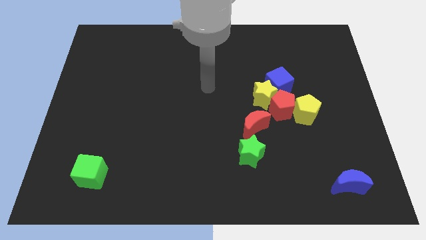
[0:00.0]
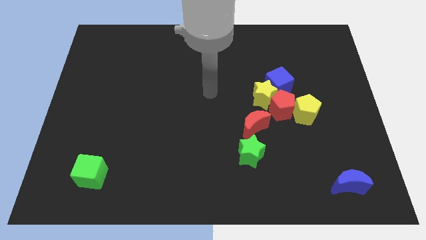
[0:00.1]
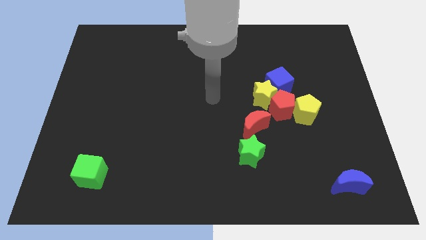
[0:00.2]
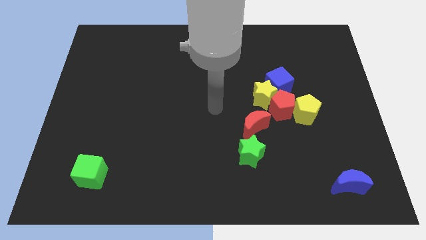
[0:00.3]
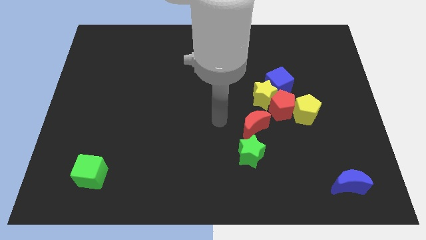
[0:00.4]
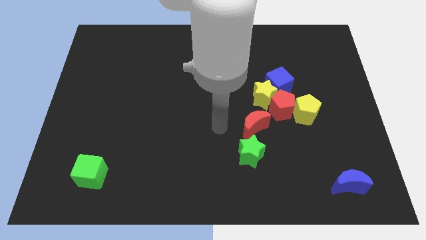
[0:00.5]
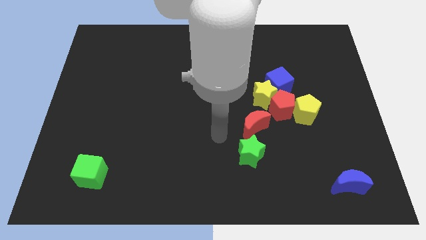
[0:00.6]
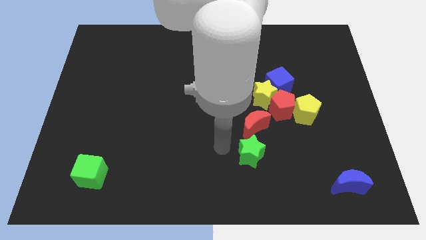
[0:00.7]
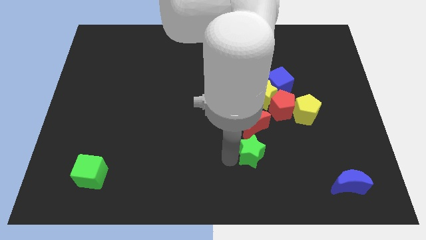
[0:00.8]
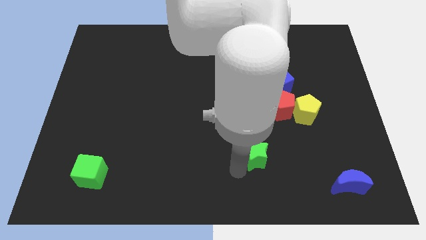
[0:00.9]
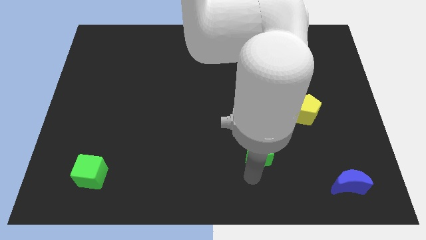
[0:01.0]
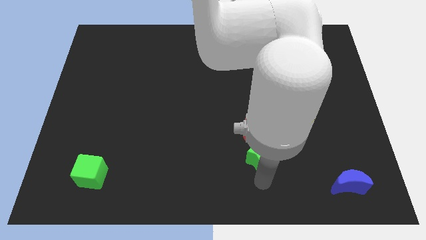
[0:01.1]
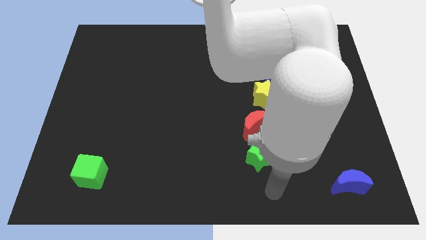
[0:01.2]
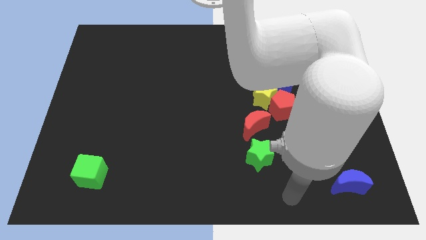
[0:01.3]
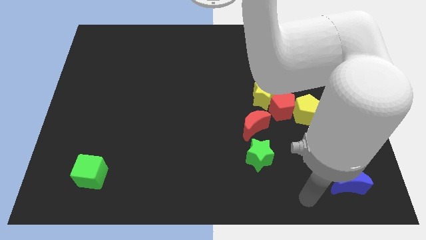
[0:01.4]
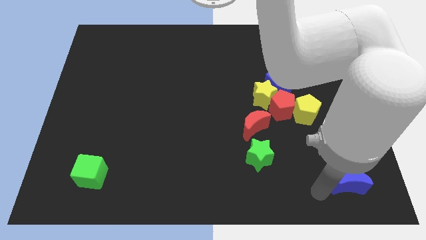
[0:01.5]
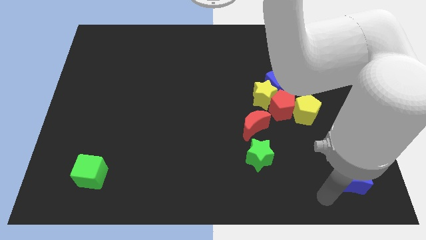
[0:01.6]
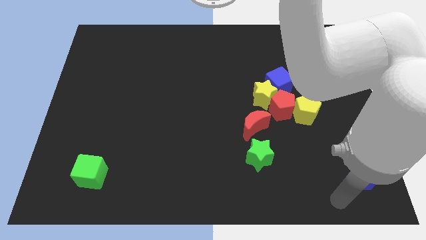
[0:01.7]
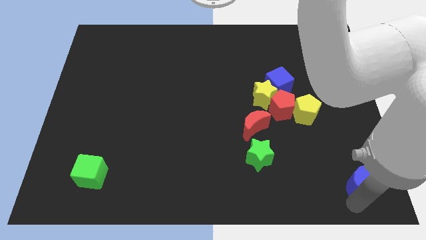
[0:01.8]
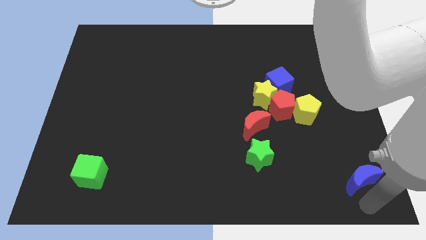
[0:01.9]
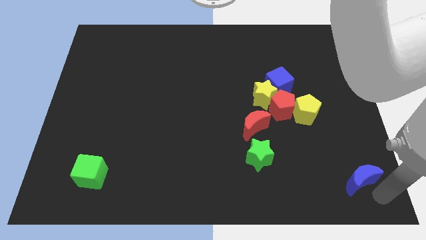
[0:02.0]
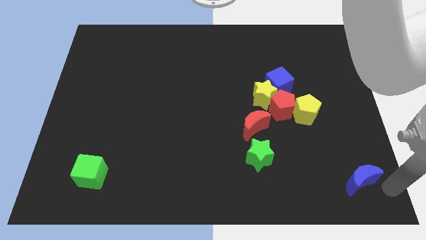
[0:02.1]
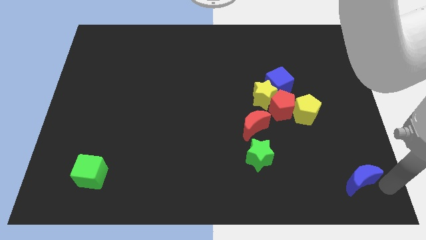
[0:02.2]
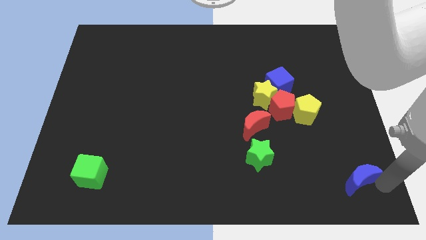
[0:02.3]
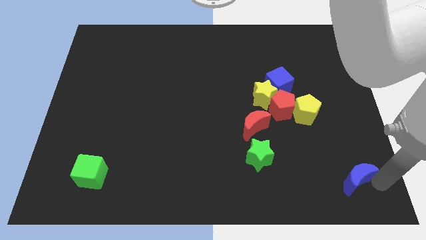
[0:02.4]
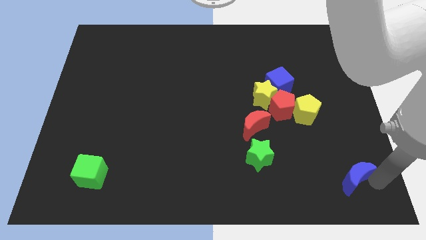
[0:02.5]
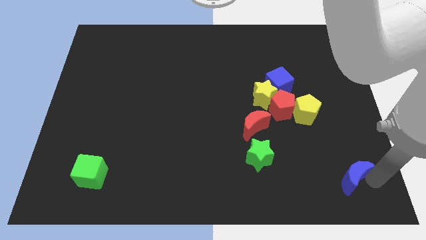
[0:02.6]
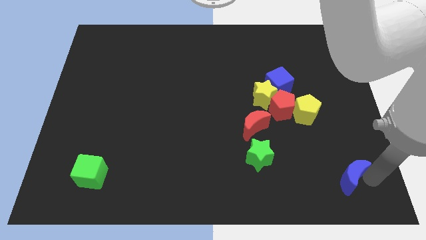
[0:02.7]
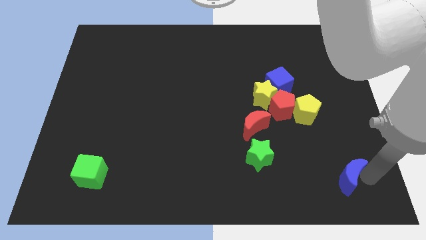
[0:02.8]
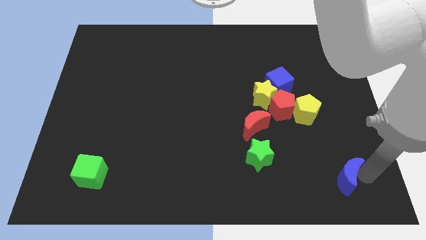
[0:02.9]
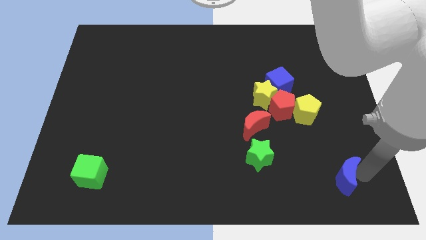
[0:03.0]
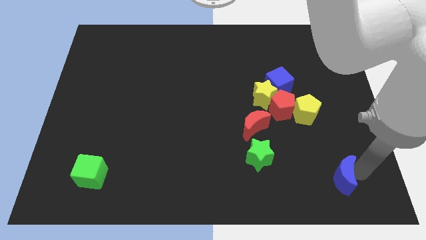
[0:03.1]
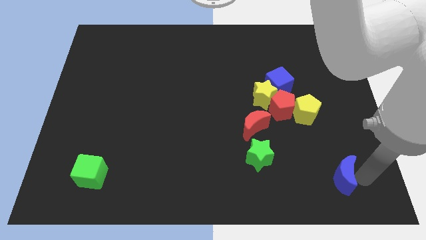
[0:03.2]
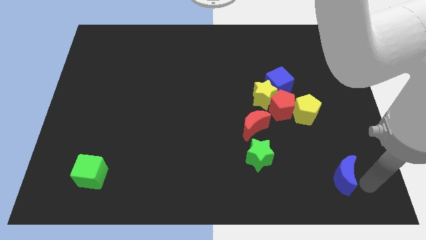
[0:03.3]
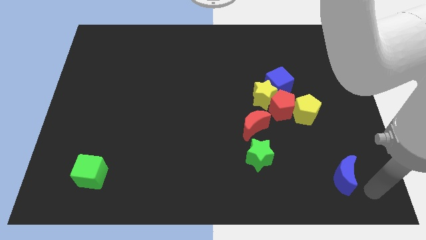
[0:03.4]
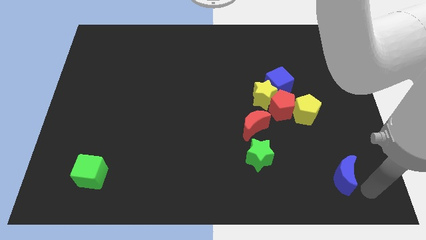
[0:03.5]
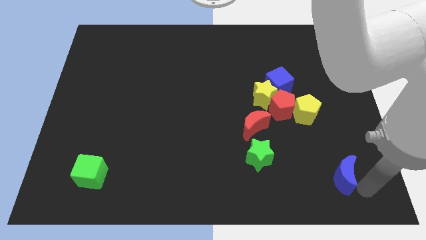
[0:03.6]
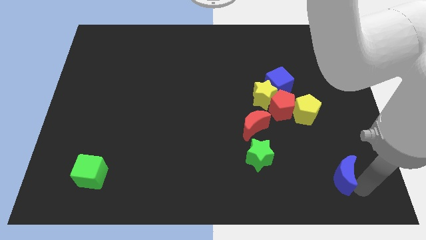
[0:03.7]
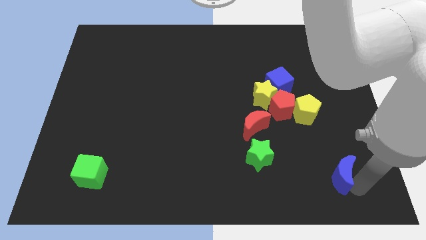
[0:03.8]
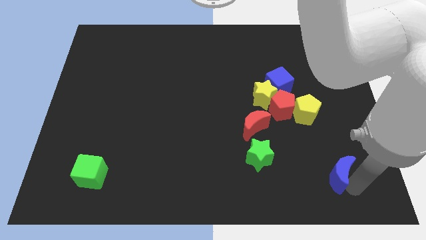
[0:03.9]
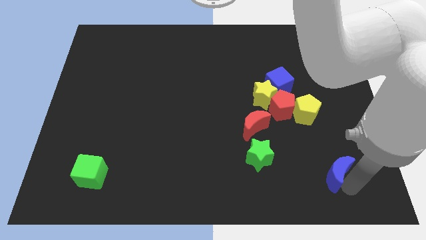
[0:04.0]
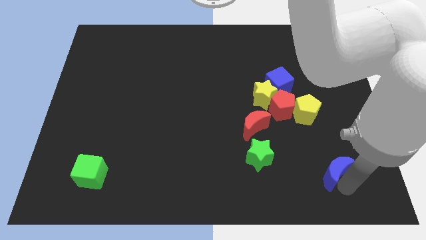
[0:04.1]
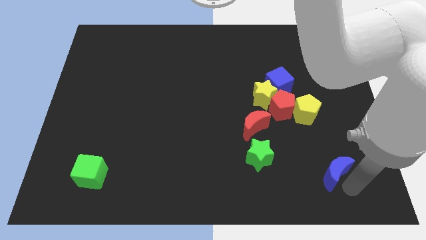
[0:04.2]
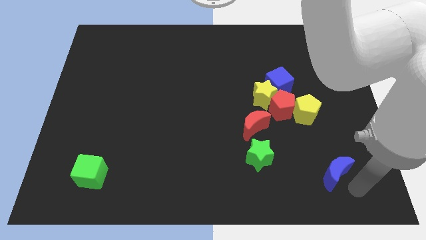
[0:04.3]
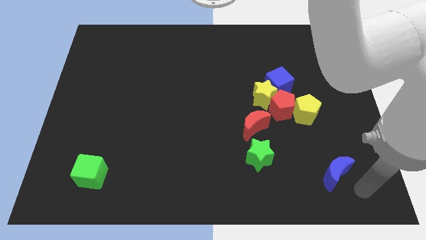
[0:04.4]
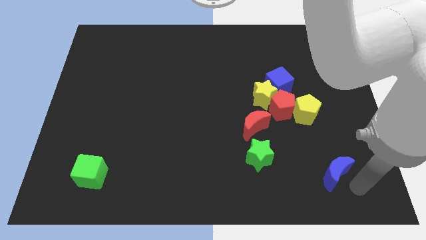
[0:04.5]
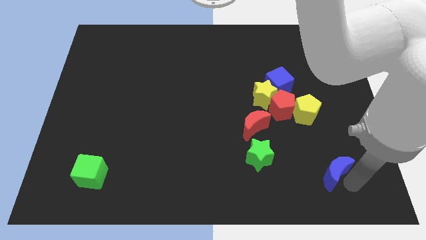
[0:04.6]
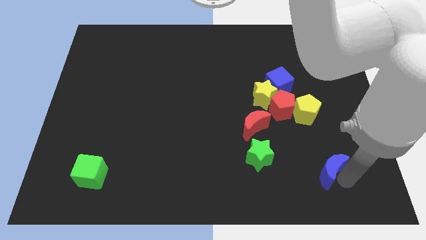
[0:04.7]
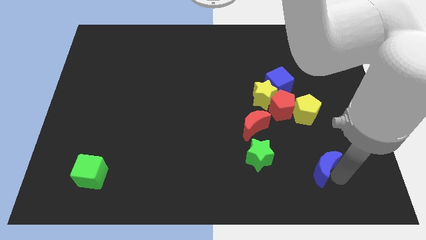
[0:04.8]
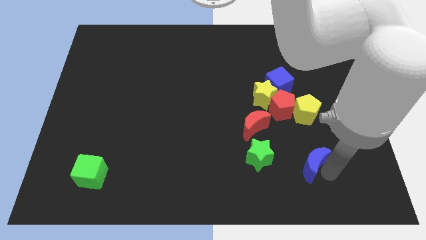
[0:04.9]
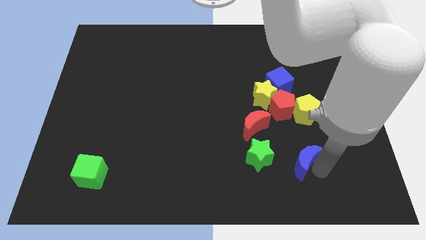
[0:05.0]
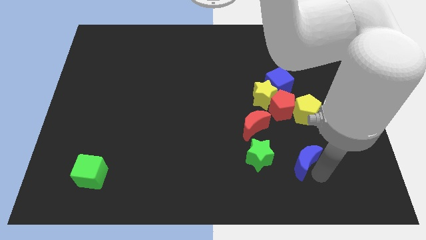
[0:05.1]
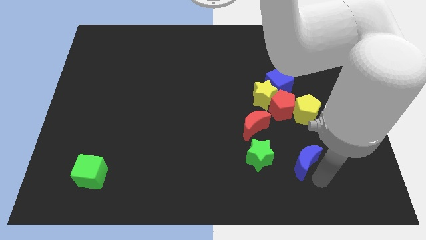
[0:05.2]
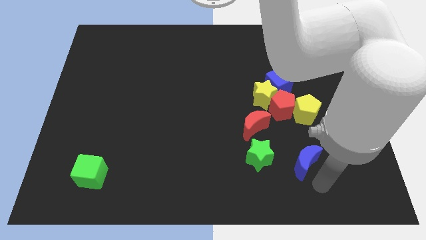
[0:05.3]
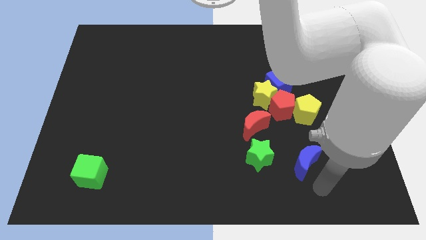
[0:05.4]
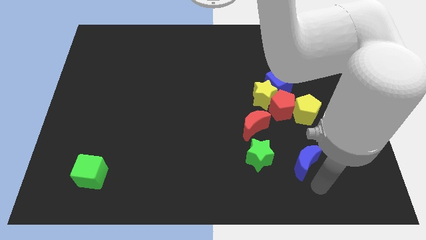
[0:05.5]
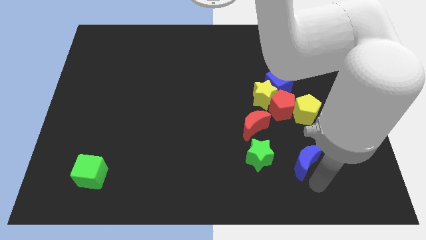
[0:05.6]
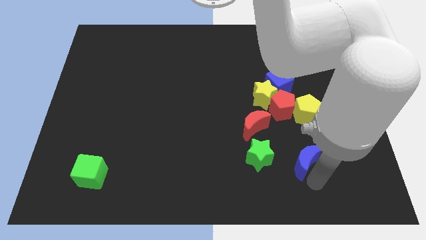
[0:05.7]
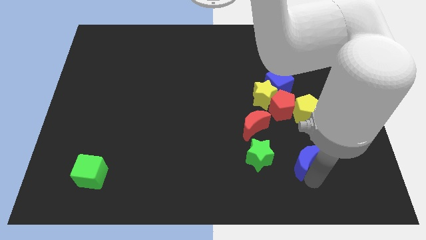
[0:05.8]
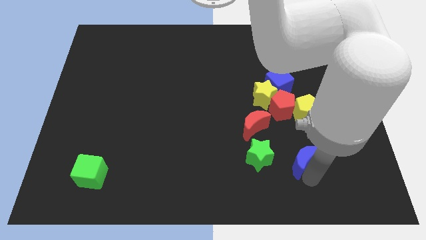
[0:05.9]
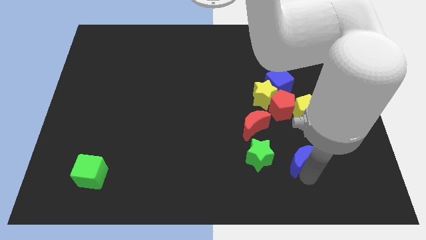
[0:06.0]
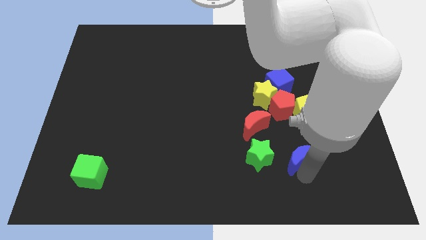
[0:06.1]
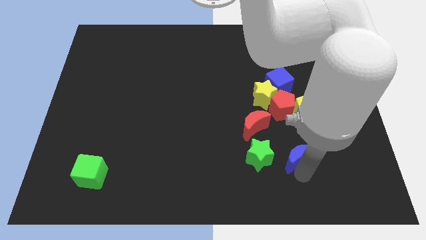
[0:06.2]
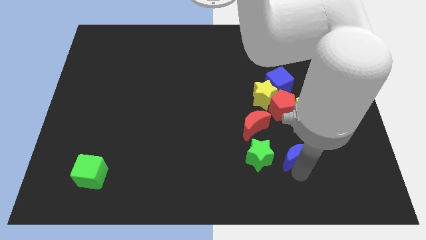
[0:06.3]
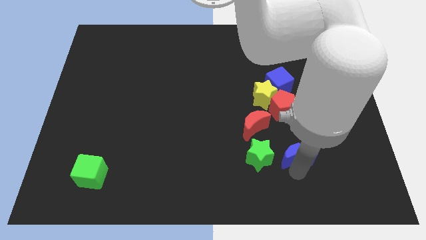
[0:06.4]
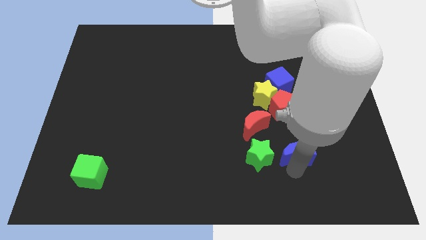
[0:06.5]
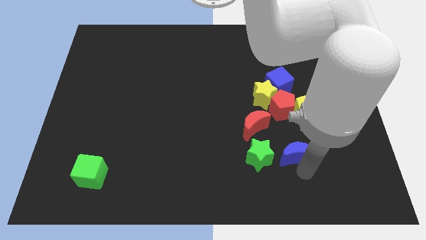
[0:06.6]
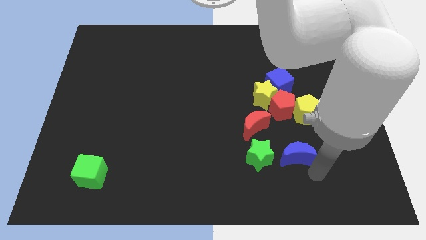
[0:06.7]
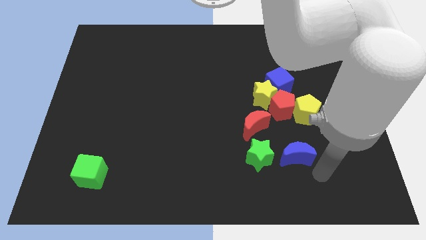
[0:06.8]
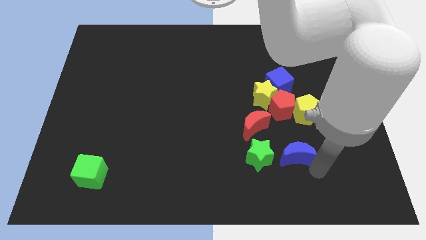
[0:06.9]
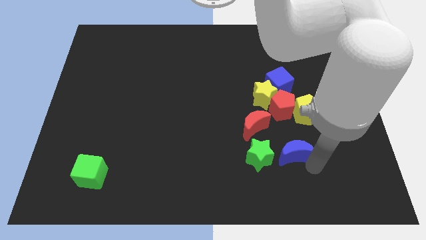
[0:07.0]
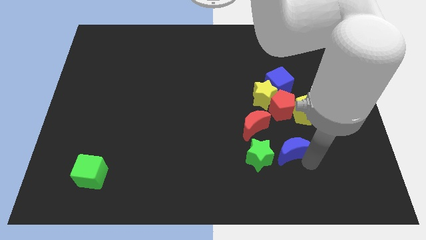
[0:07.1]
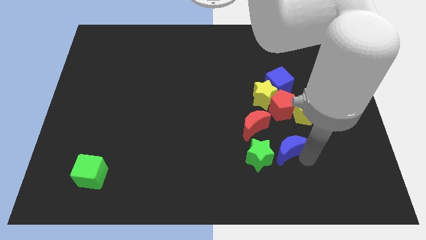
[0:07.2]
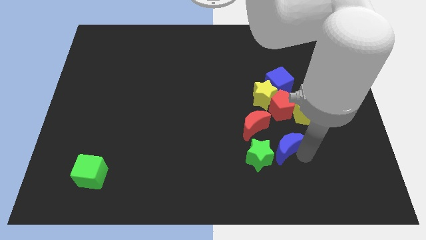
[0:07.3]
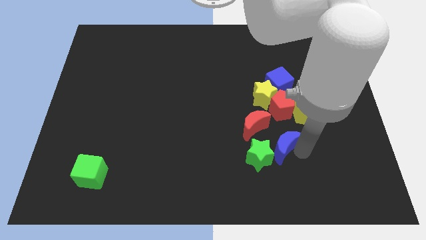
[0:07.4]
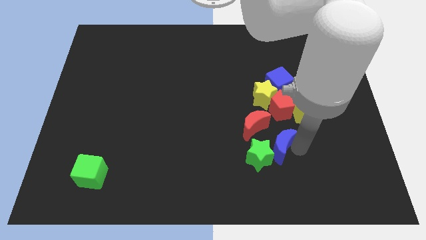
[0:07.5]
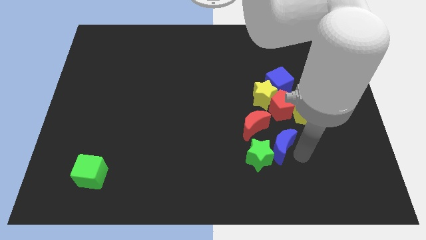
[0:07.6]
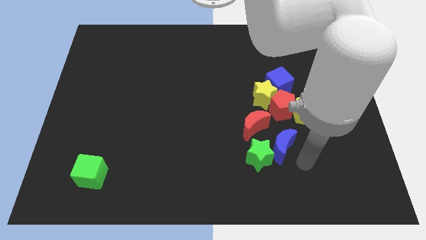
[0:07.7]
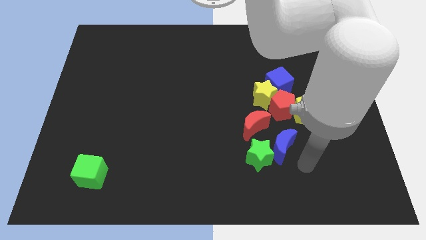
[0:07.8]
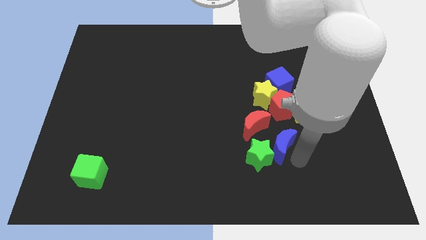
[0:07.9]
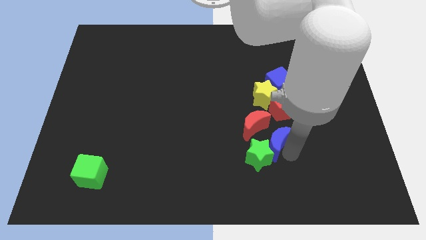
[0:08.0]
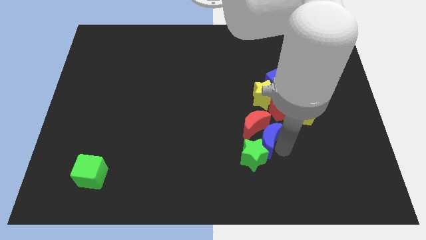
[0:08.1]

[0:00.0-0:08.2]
slide the blue moon next to the red moon
